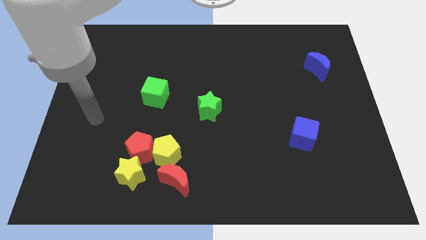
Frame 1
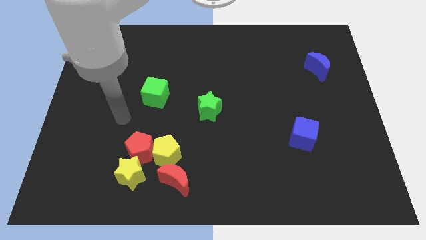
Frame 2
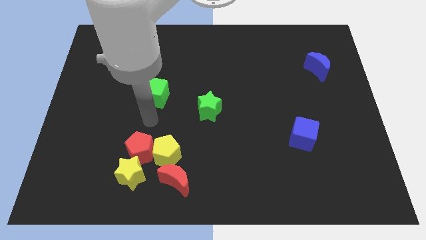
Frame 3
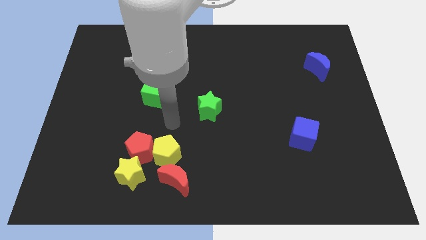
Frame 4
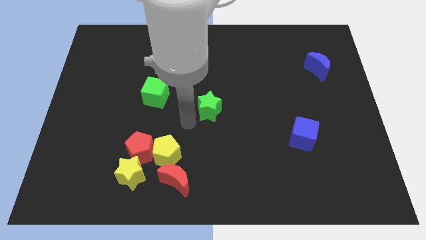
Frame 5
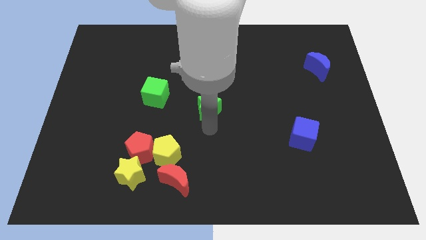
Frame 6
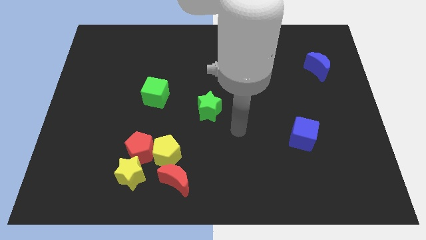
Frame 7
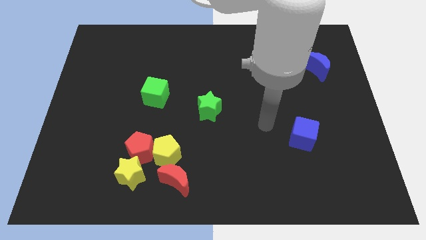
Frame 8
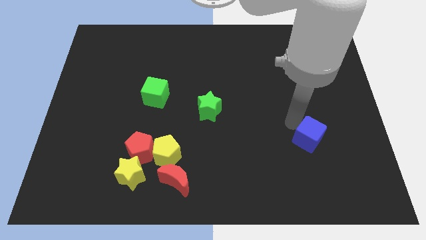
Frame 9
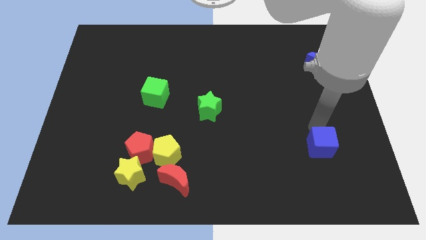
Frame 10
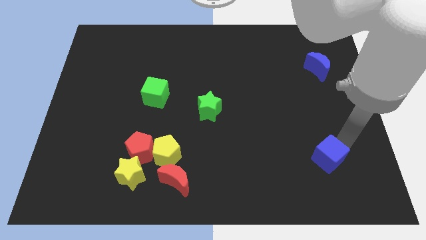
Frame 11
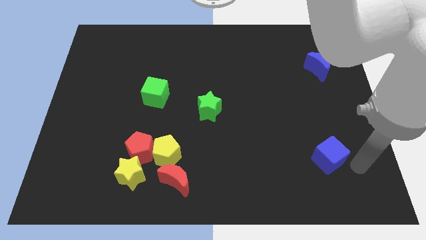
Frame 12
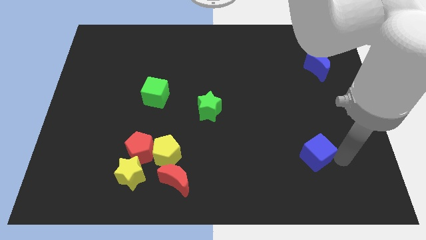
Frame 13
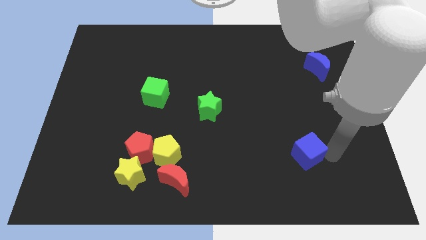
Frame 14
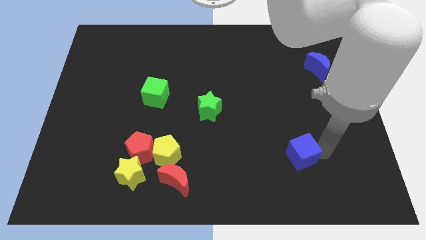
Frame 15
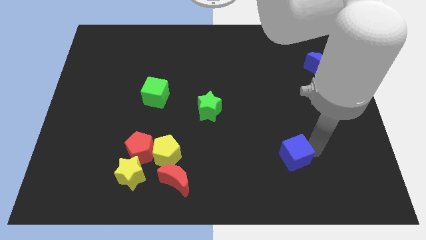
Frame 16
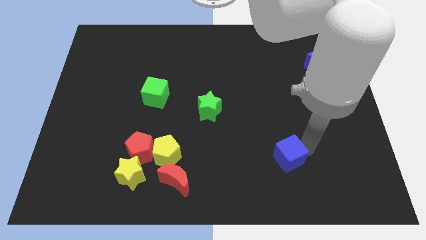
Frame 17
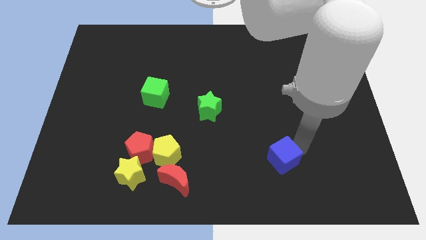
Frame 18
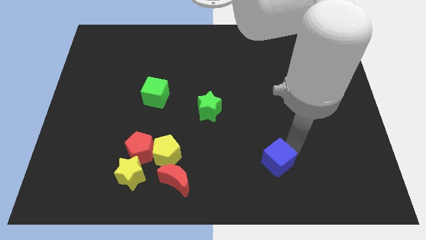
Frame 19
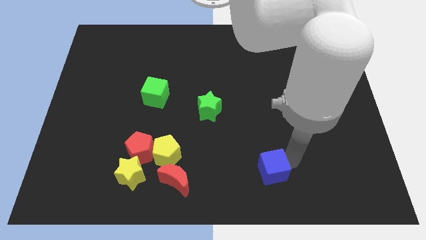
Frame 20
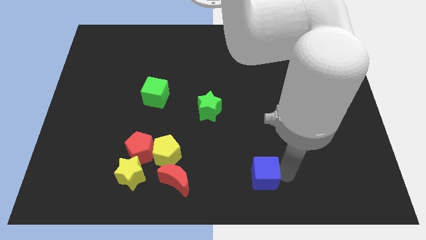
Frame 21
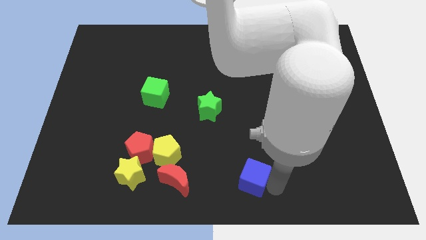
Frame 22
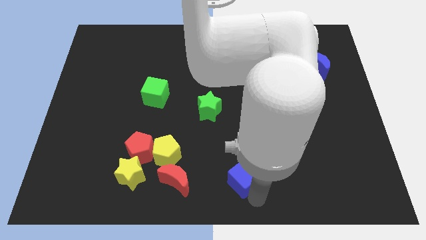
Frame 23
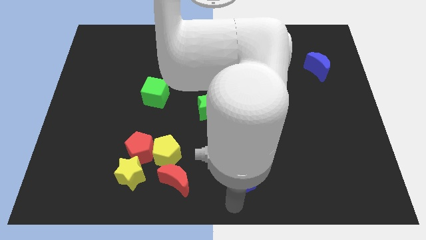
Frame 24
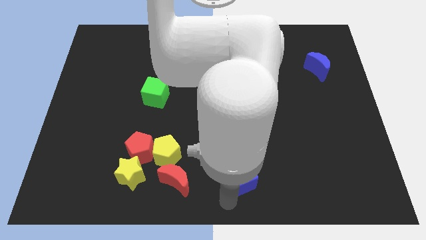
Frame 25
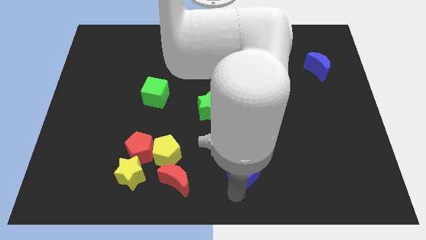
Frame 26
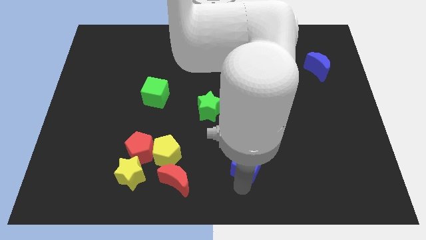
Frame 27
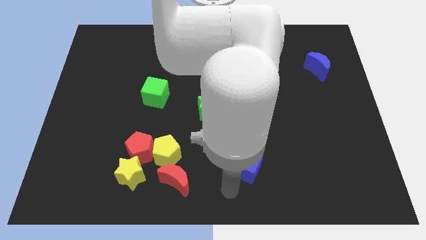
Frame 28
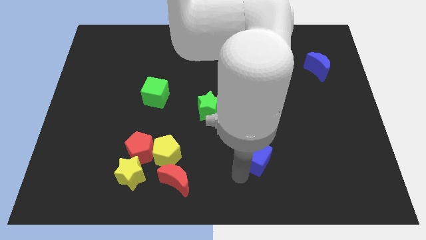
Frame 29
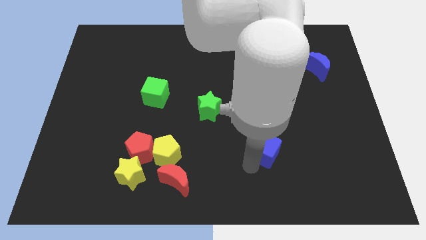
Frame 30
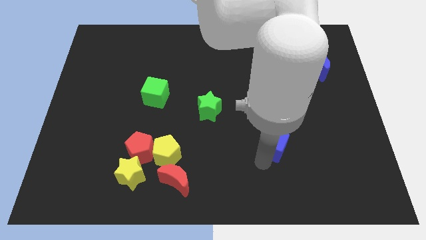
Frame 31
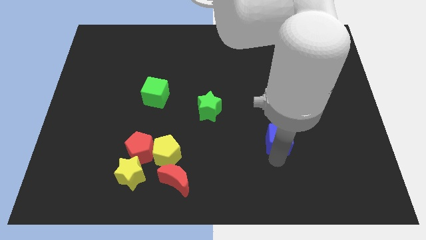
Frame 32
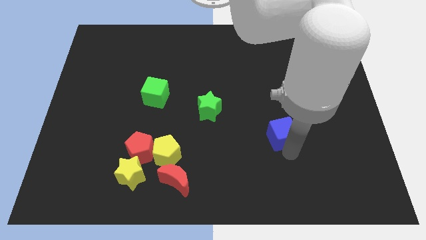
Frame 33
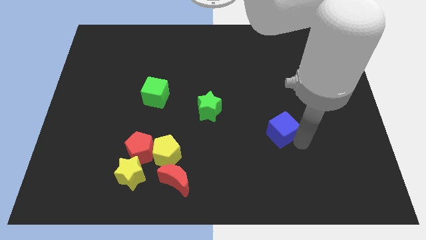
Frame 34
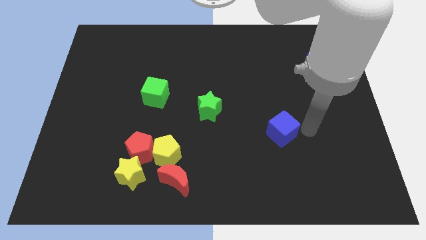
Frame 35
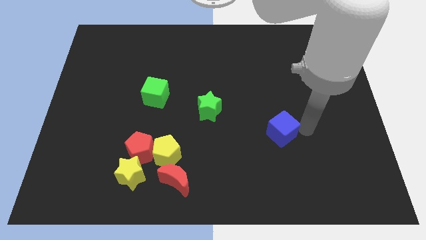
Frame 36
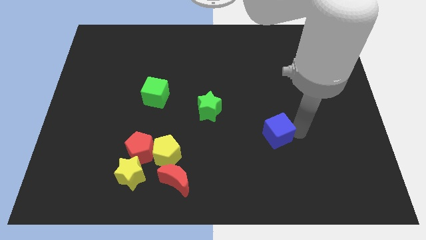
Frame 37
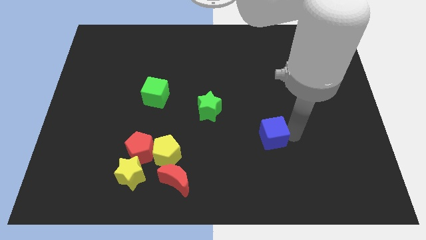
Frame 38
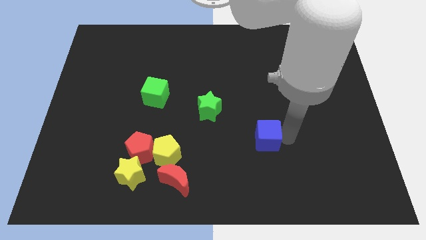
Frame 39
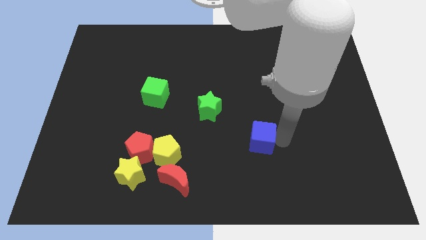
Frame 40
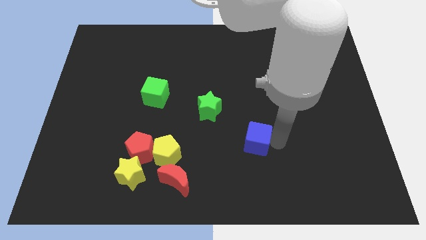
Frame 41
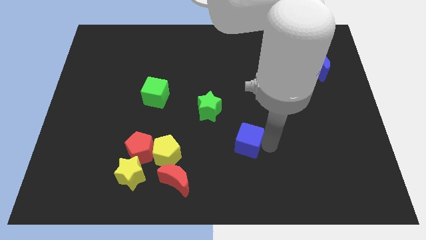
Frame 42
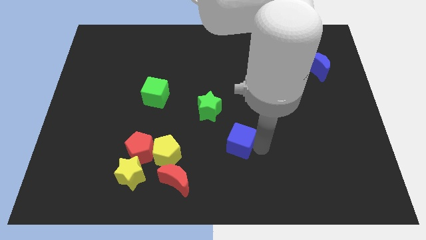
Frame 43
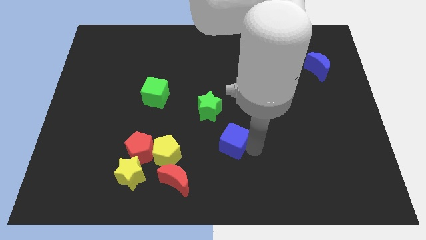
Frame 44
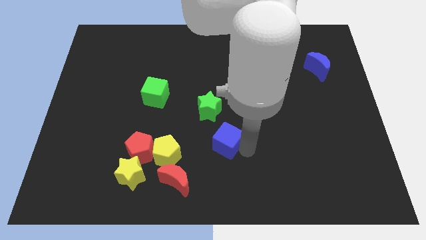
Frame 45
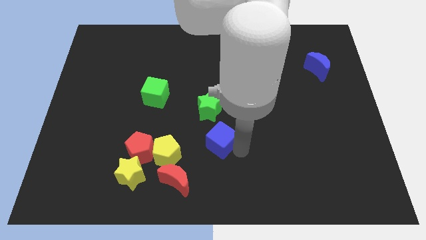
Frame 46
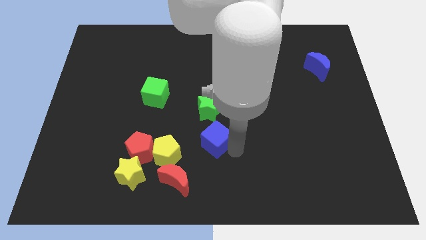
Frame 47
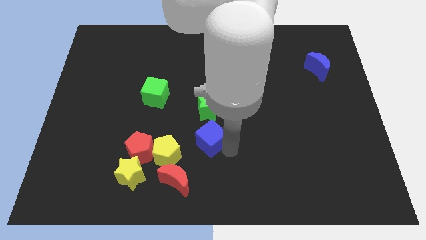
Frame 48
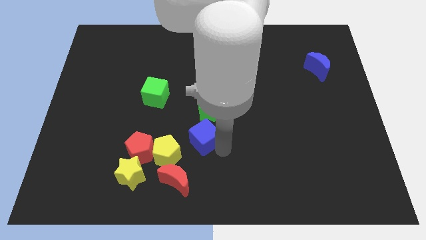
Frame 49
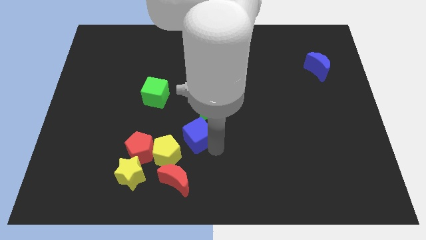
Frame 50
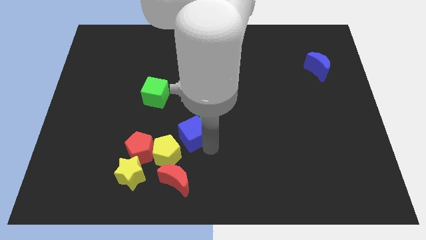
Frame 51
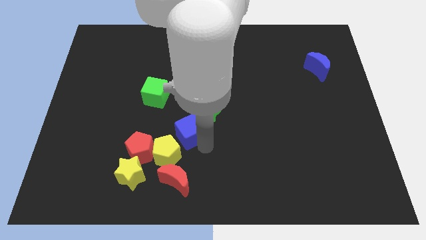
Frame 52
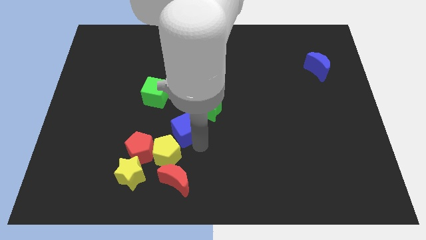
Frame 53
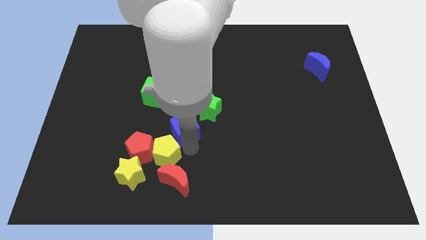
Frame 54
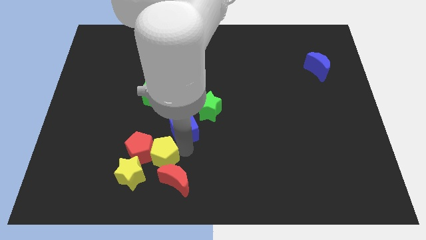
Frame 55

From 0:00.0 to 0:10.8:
put the blue cube to the bottom right side of the green cube

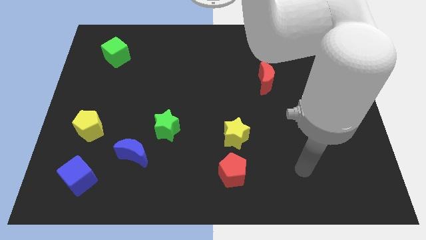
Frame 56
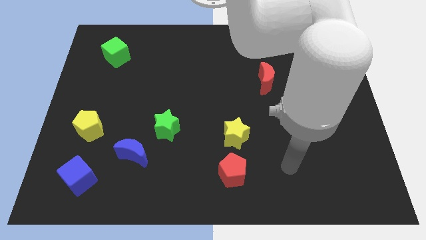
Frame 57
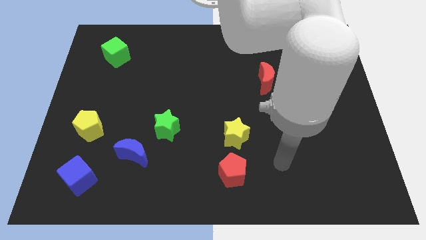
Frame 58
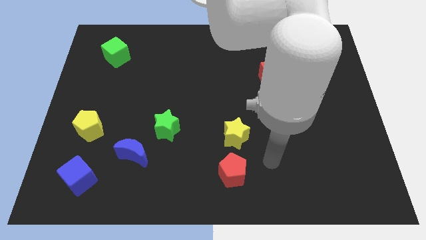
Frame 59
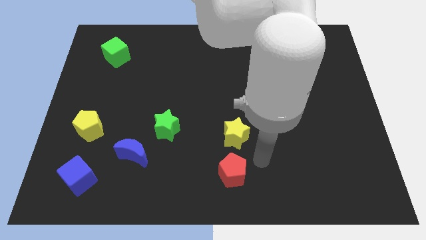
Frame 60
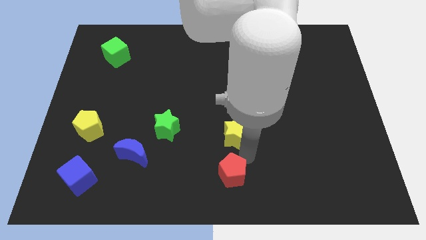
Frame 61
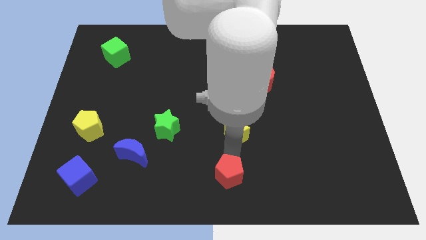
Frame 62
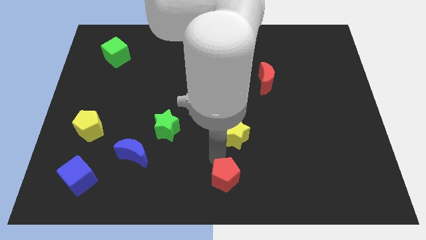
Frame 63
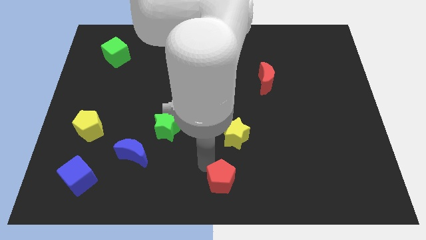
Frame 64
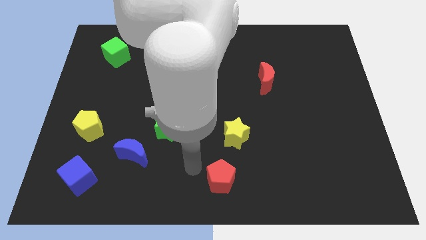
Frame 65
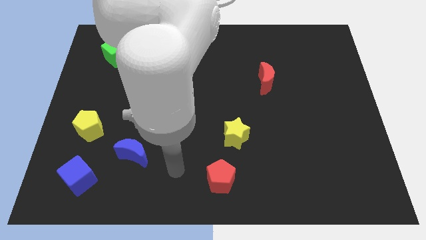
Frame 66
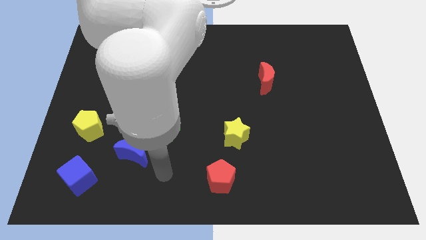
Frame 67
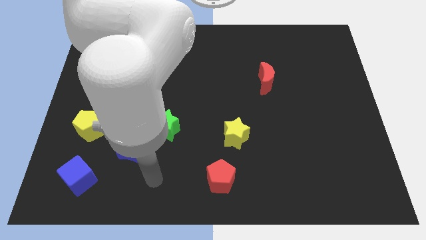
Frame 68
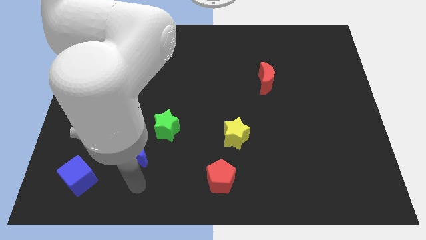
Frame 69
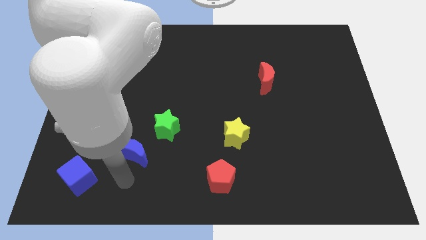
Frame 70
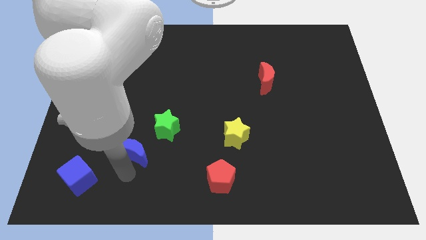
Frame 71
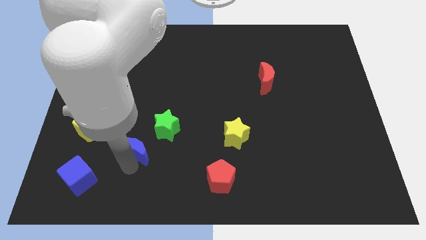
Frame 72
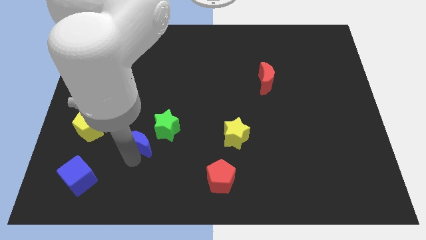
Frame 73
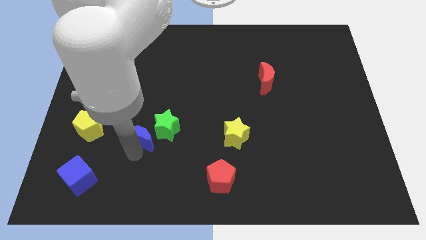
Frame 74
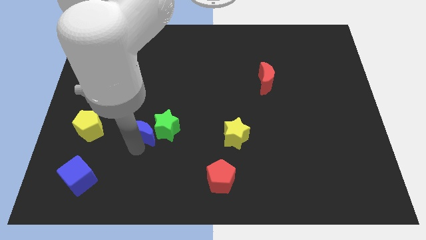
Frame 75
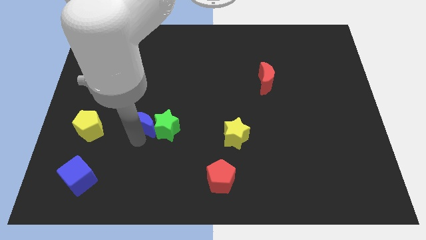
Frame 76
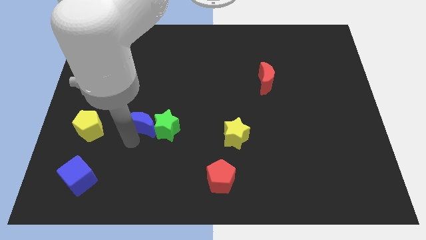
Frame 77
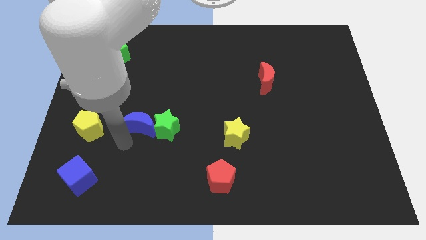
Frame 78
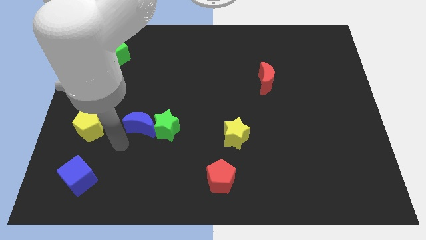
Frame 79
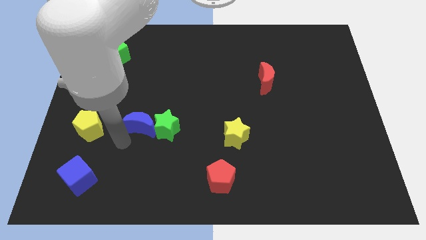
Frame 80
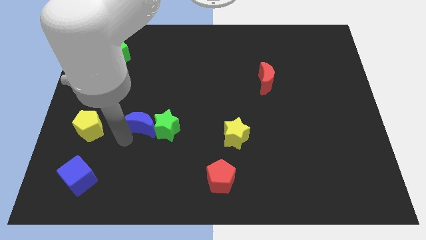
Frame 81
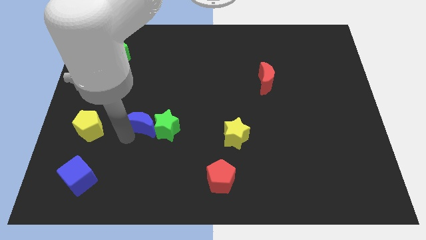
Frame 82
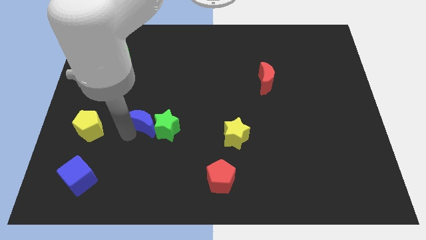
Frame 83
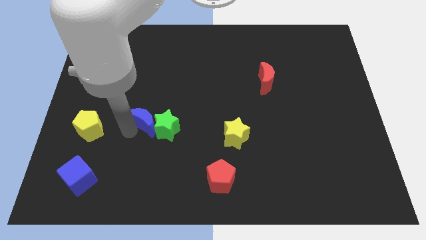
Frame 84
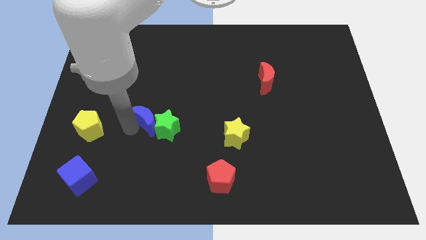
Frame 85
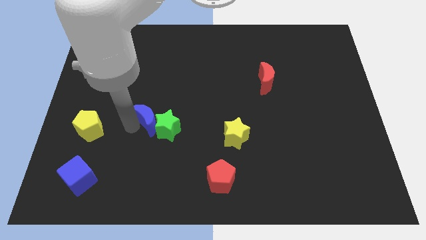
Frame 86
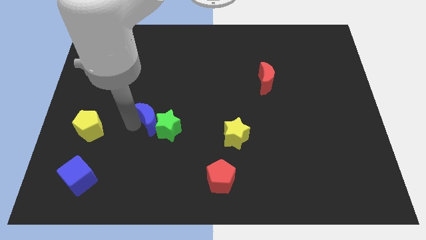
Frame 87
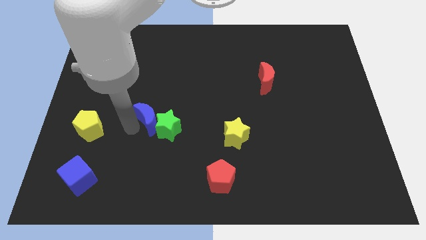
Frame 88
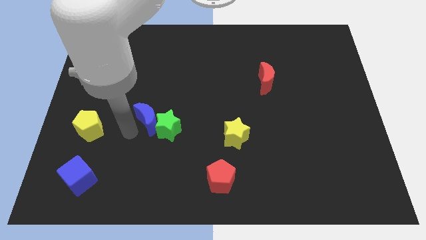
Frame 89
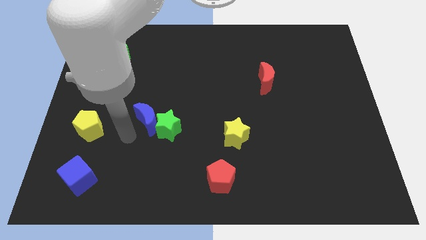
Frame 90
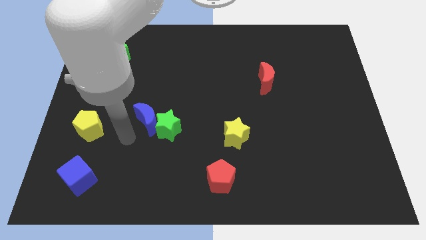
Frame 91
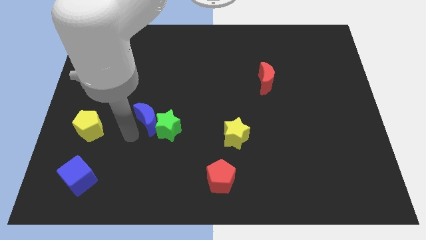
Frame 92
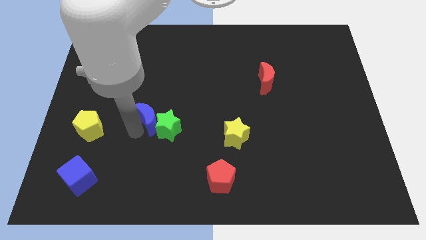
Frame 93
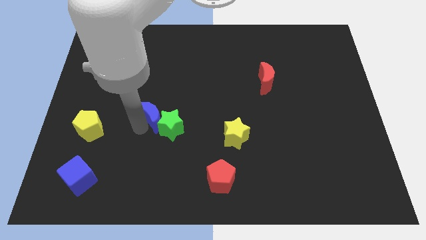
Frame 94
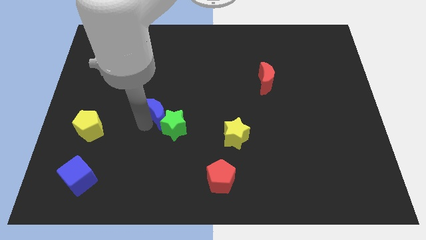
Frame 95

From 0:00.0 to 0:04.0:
put the blue moon above the green star
